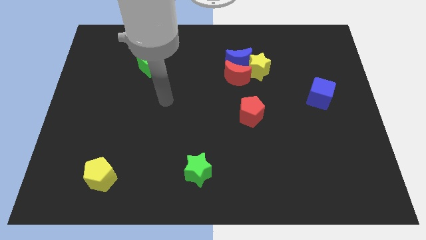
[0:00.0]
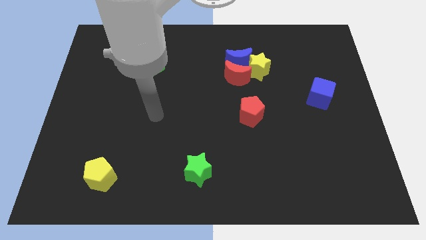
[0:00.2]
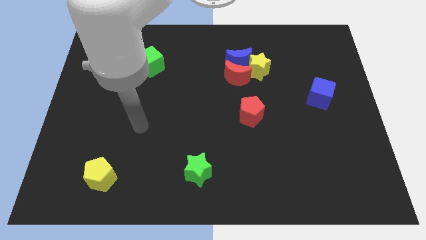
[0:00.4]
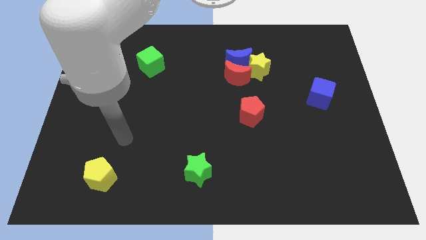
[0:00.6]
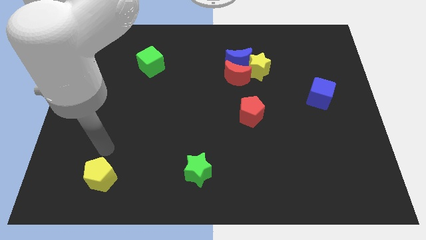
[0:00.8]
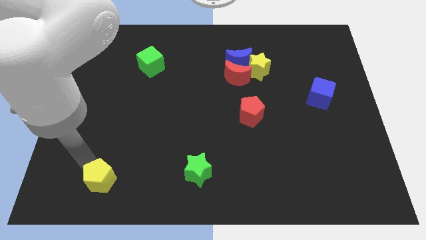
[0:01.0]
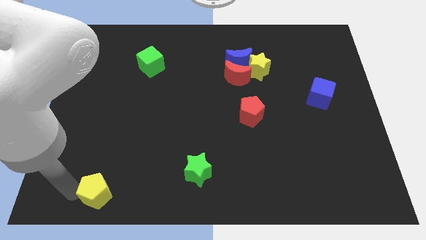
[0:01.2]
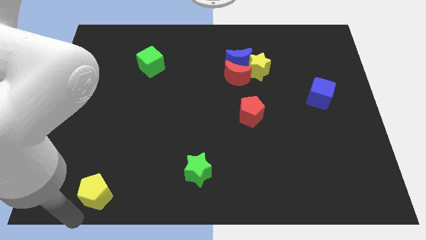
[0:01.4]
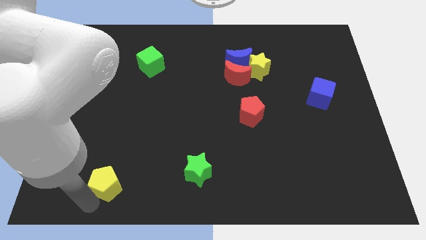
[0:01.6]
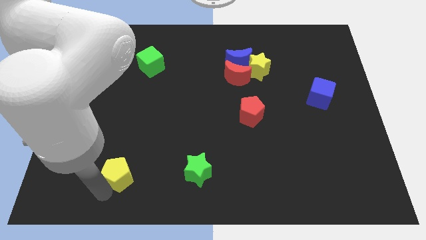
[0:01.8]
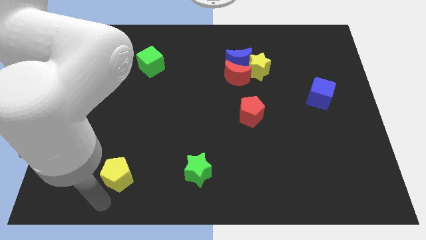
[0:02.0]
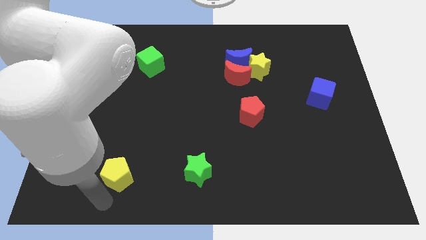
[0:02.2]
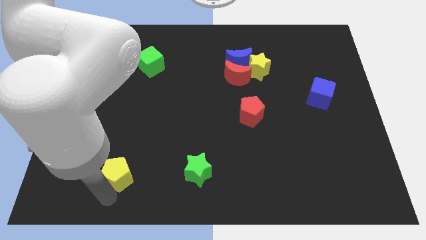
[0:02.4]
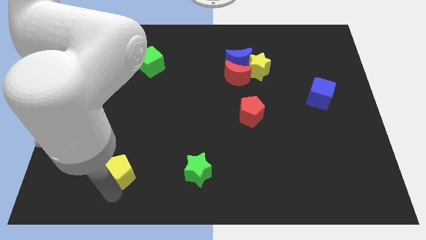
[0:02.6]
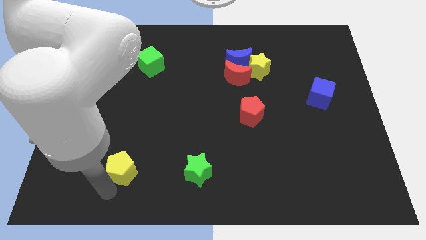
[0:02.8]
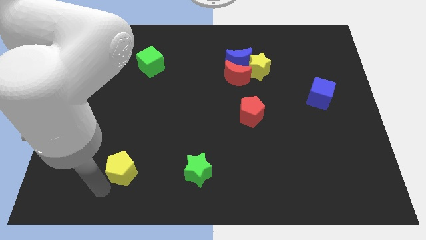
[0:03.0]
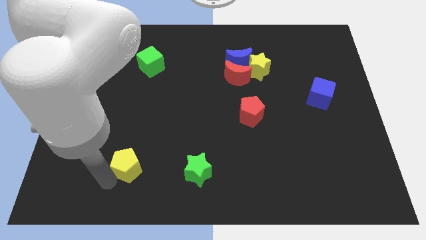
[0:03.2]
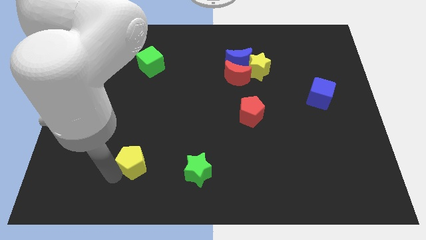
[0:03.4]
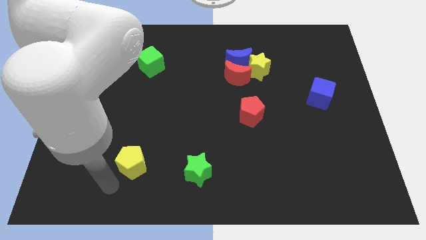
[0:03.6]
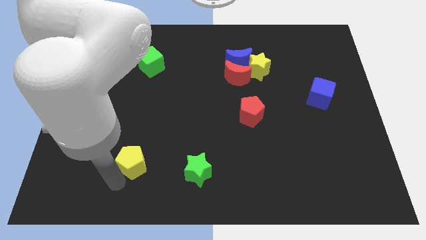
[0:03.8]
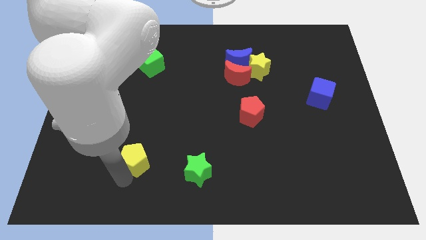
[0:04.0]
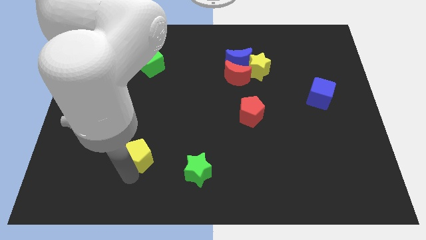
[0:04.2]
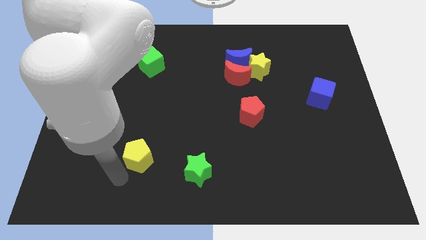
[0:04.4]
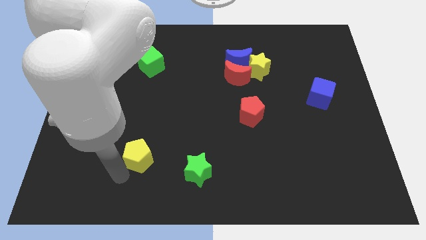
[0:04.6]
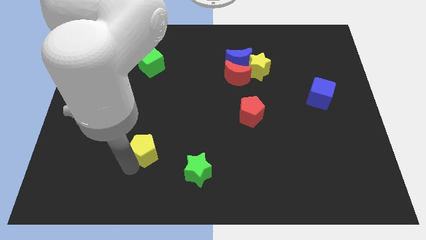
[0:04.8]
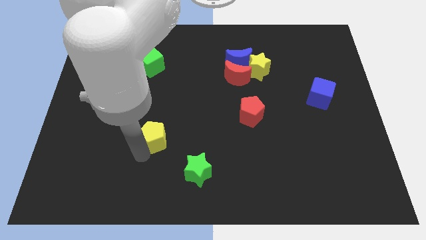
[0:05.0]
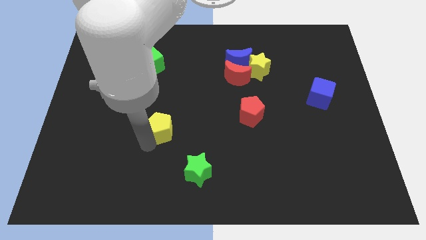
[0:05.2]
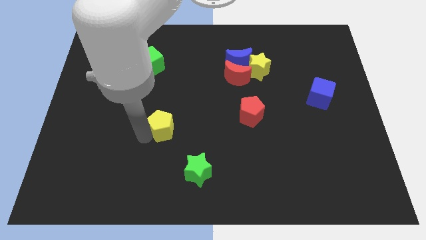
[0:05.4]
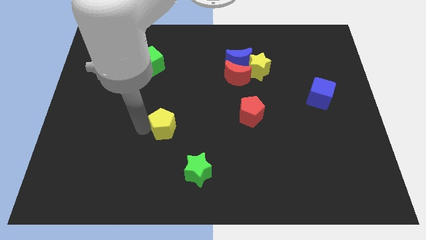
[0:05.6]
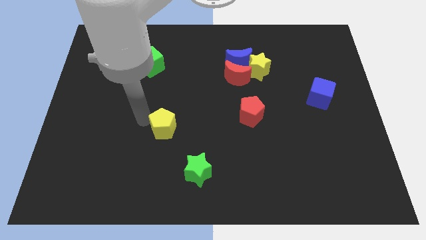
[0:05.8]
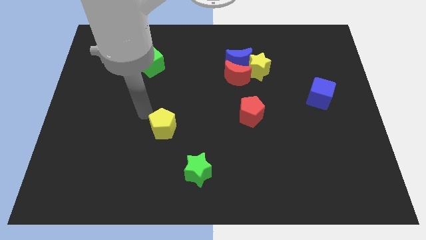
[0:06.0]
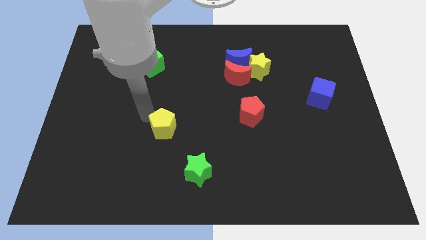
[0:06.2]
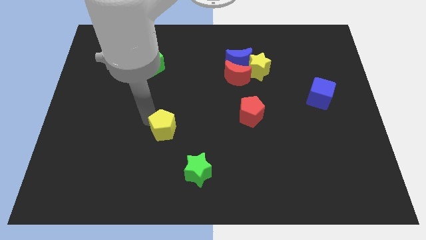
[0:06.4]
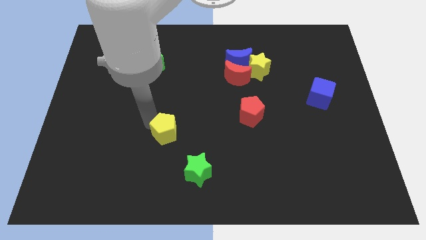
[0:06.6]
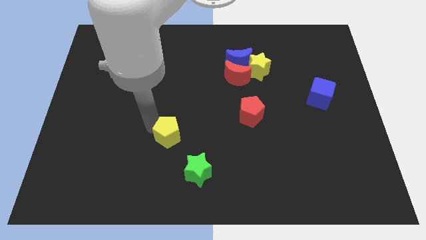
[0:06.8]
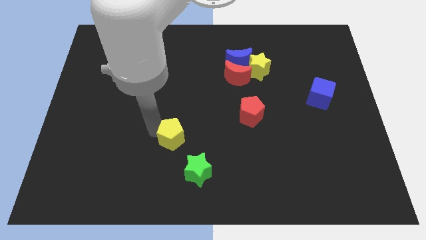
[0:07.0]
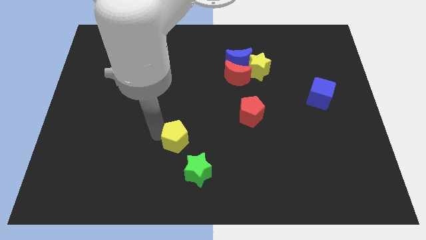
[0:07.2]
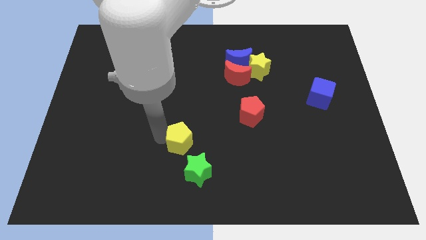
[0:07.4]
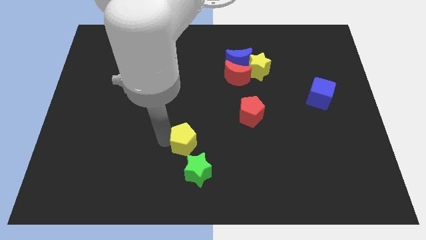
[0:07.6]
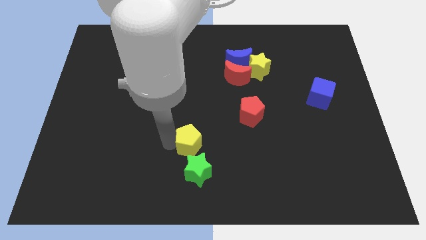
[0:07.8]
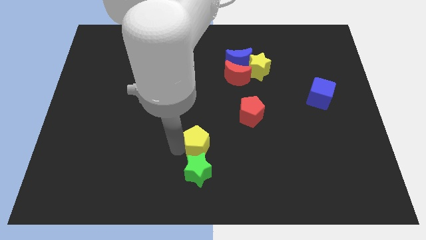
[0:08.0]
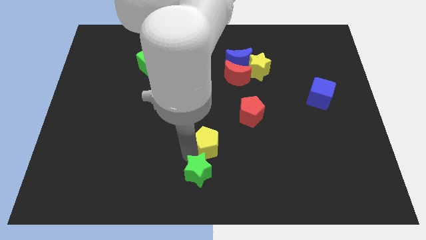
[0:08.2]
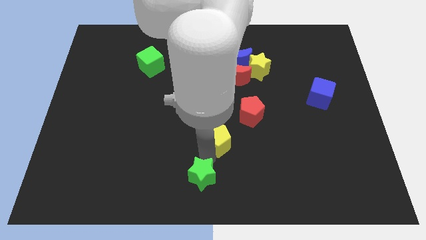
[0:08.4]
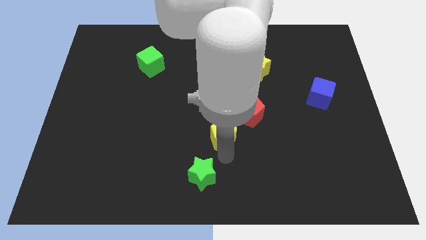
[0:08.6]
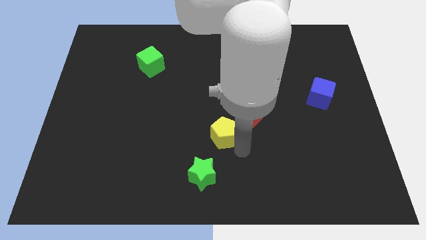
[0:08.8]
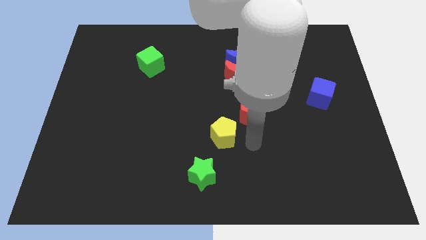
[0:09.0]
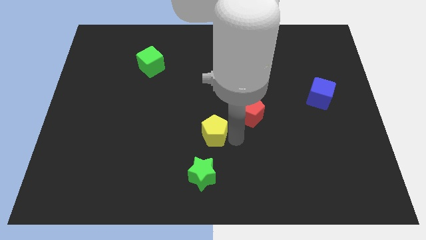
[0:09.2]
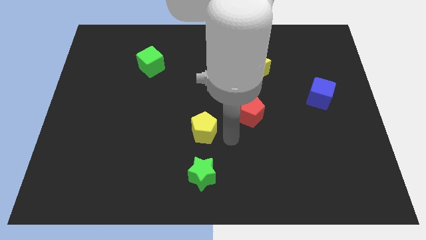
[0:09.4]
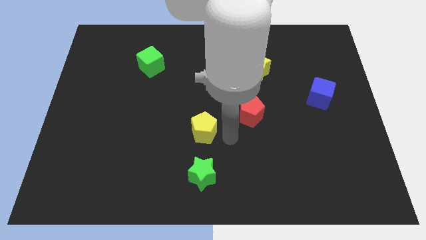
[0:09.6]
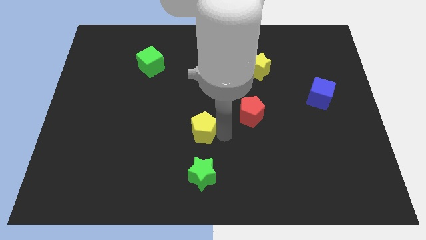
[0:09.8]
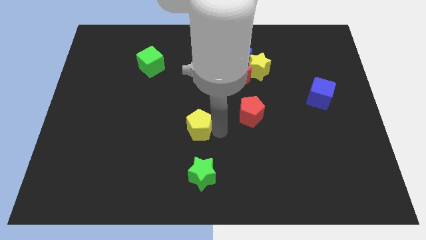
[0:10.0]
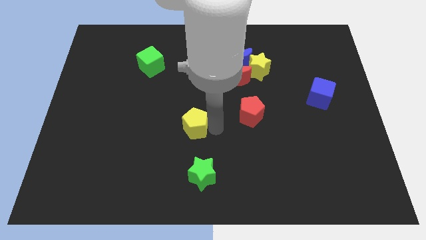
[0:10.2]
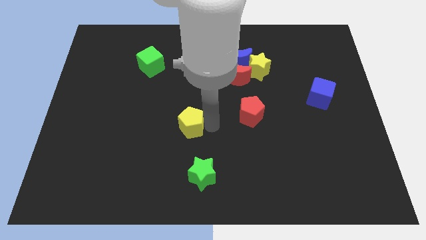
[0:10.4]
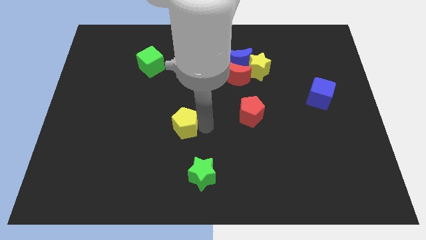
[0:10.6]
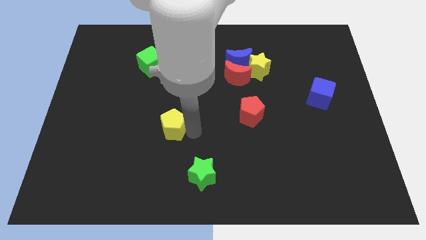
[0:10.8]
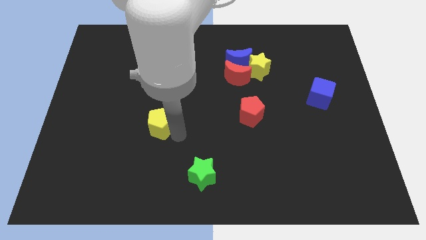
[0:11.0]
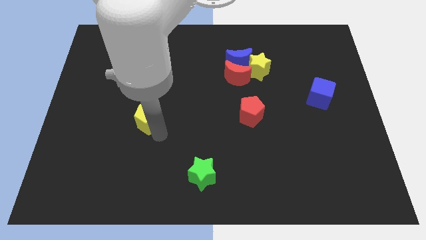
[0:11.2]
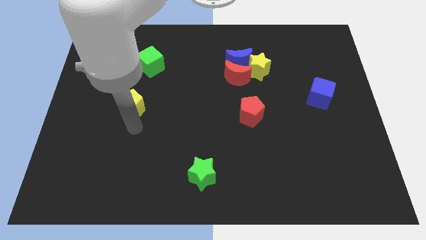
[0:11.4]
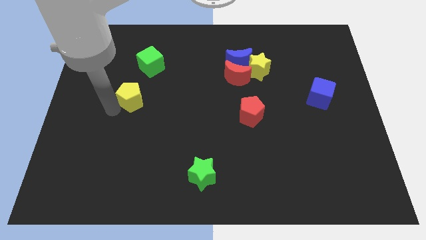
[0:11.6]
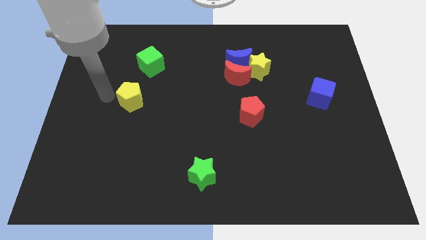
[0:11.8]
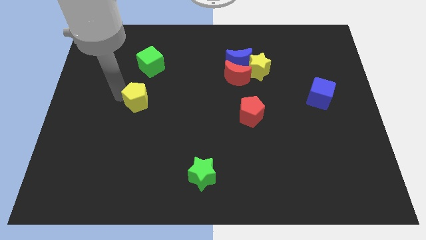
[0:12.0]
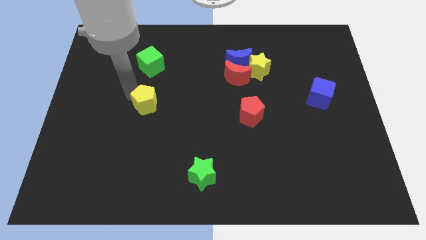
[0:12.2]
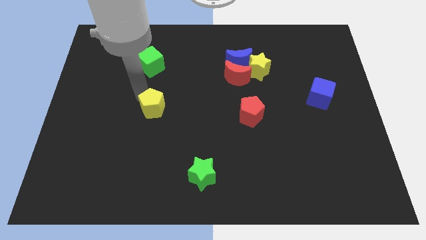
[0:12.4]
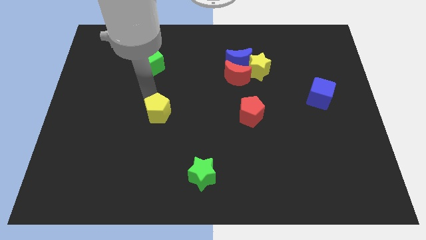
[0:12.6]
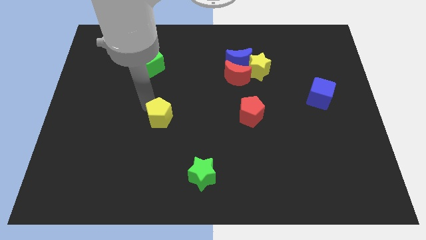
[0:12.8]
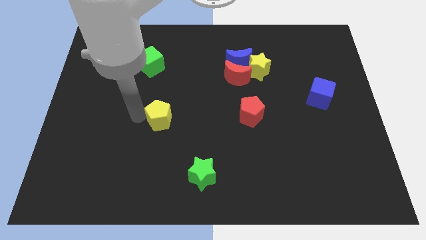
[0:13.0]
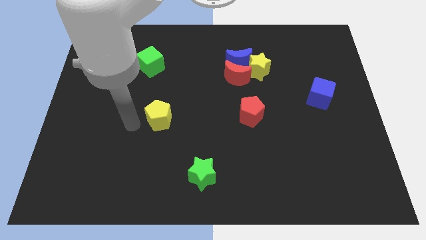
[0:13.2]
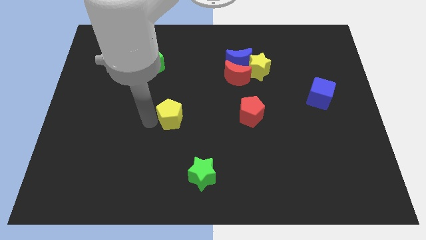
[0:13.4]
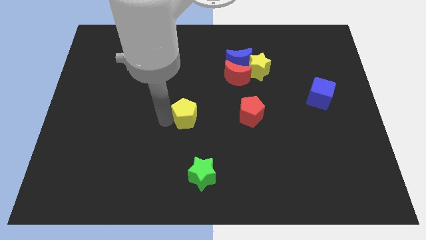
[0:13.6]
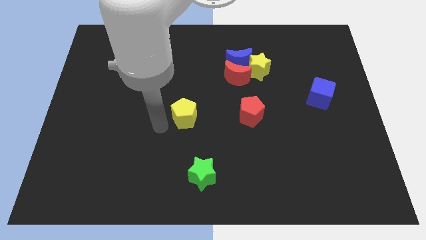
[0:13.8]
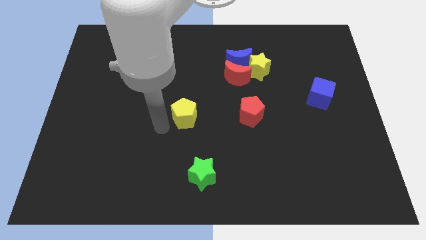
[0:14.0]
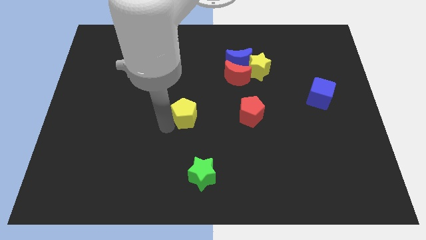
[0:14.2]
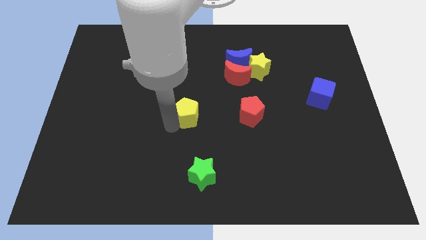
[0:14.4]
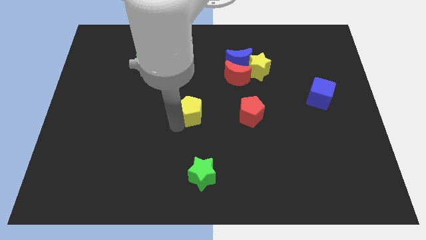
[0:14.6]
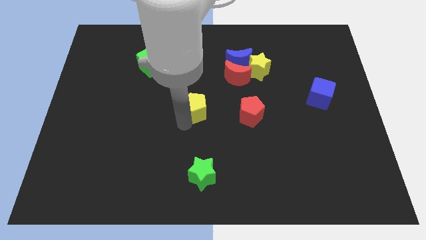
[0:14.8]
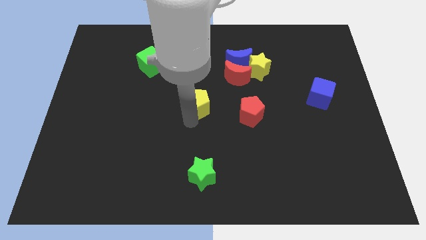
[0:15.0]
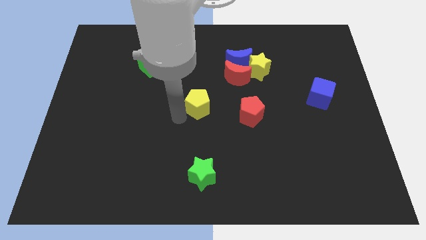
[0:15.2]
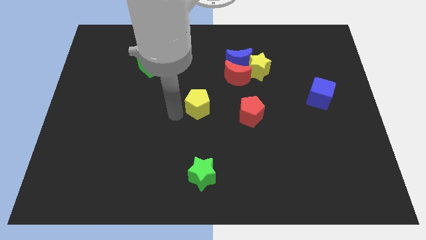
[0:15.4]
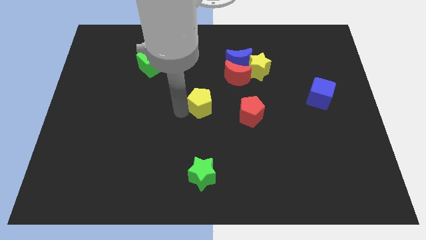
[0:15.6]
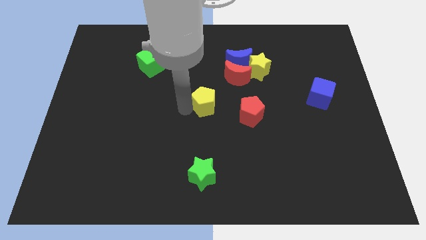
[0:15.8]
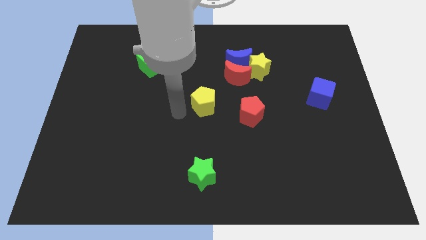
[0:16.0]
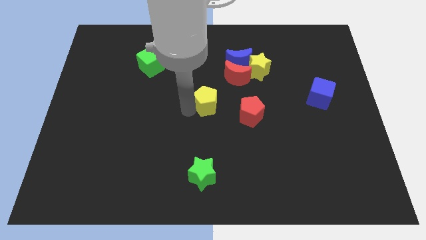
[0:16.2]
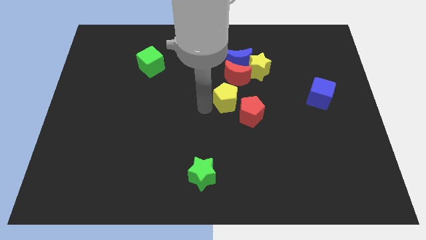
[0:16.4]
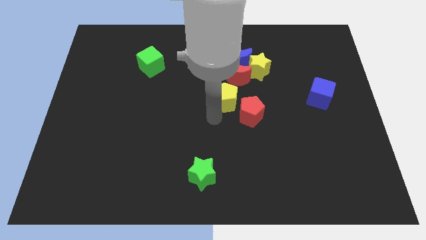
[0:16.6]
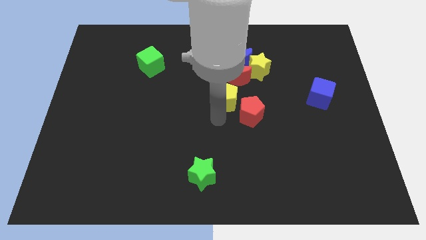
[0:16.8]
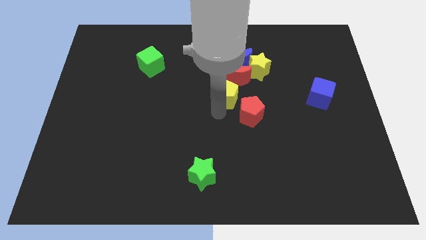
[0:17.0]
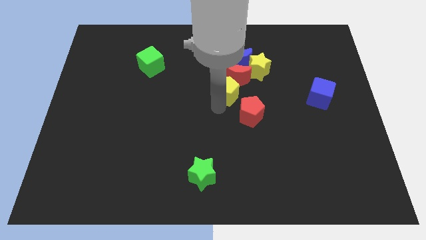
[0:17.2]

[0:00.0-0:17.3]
push the yellow pentagon to the red moon
